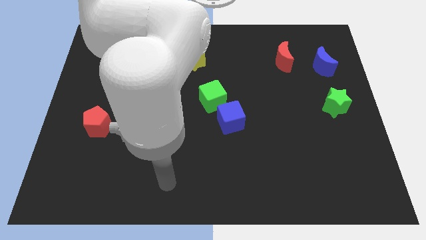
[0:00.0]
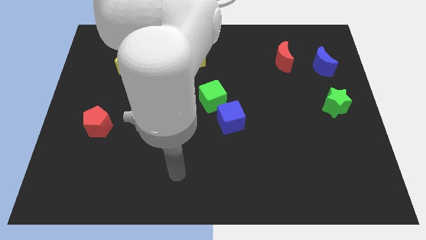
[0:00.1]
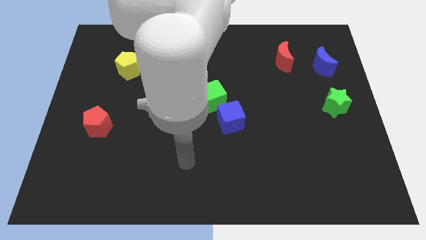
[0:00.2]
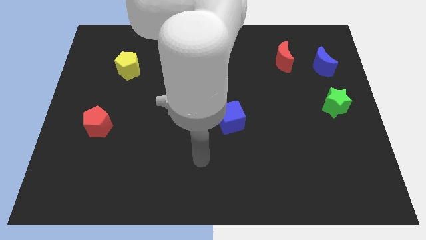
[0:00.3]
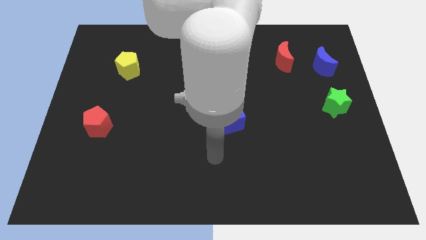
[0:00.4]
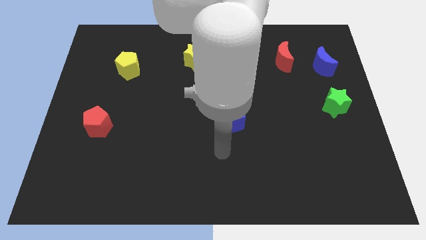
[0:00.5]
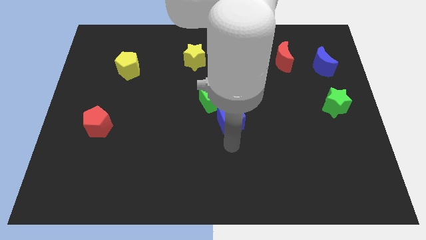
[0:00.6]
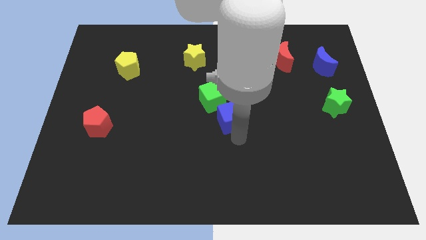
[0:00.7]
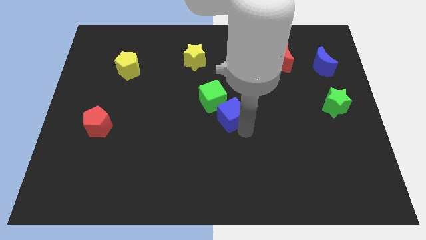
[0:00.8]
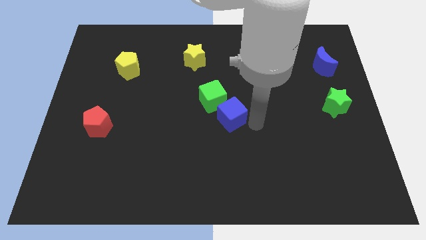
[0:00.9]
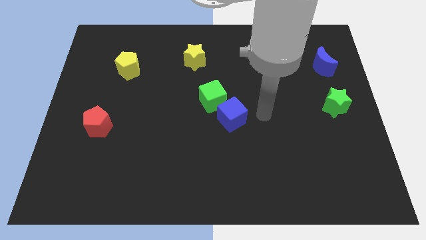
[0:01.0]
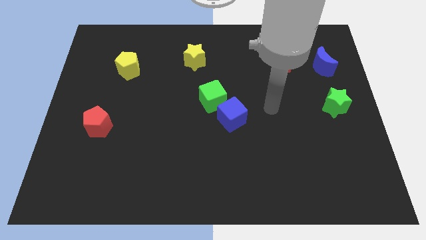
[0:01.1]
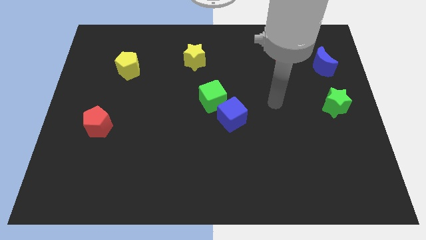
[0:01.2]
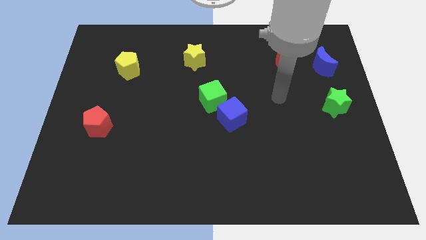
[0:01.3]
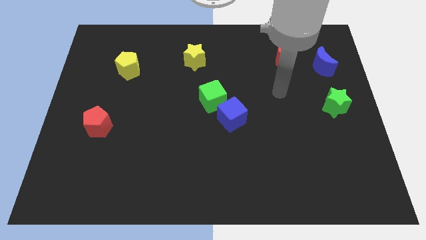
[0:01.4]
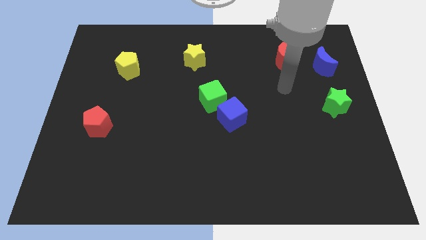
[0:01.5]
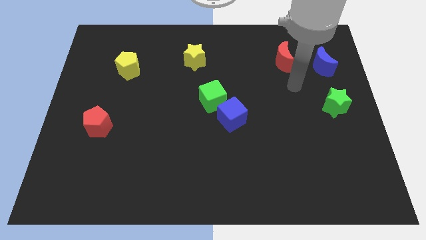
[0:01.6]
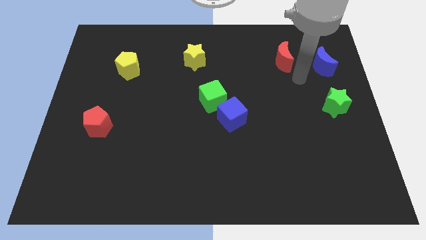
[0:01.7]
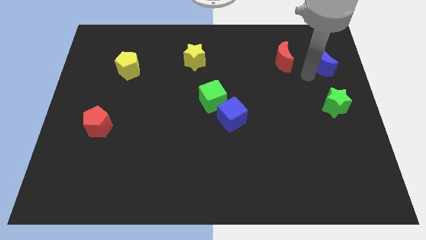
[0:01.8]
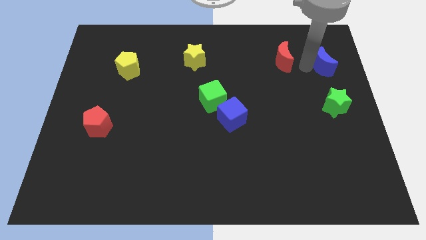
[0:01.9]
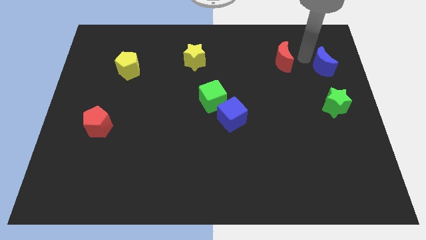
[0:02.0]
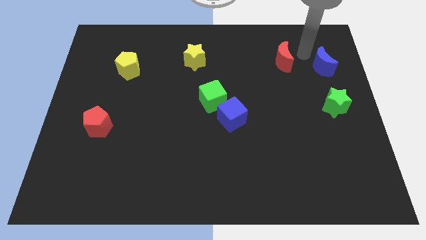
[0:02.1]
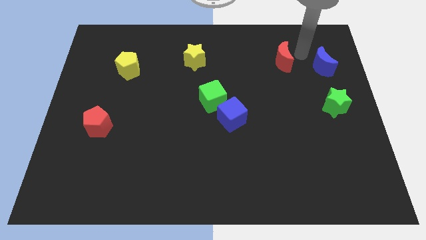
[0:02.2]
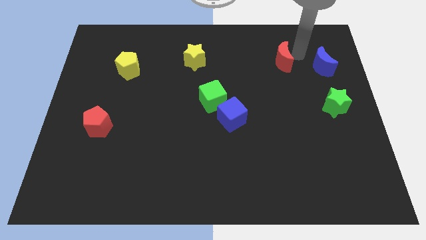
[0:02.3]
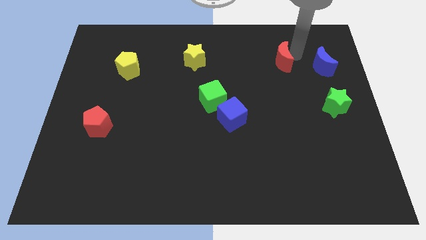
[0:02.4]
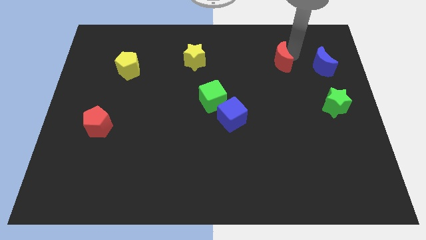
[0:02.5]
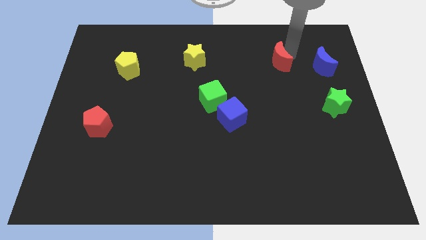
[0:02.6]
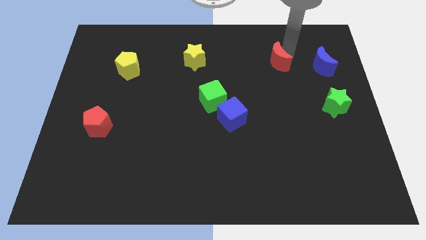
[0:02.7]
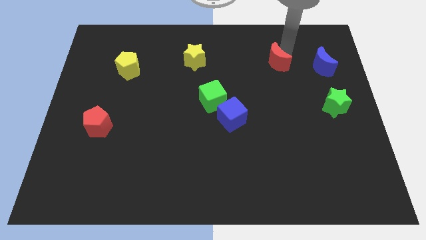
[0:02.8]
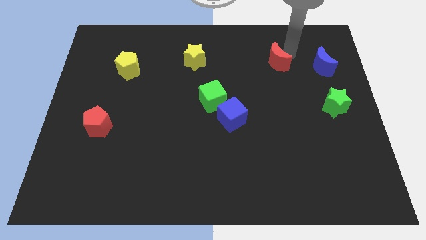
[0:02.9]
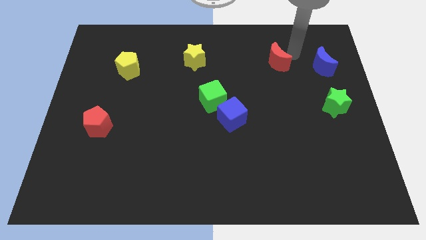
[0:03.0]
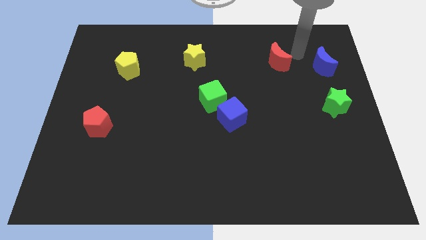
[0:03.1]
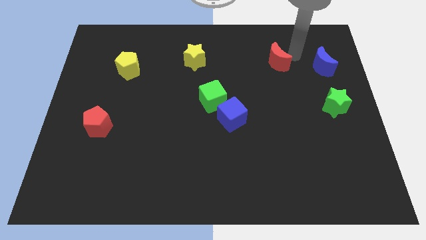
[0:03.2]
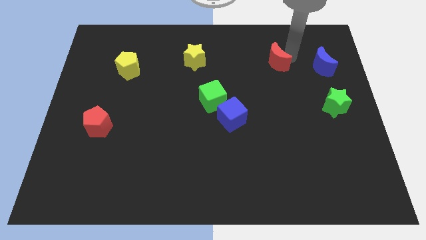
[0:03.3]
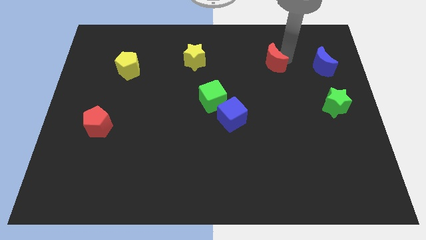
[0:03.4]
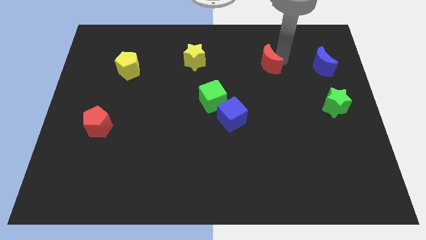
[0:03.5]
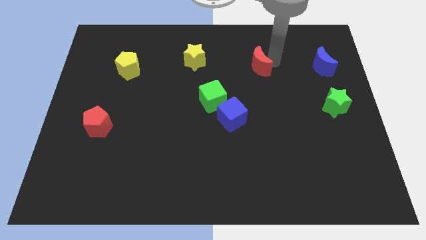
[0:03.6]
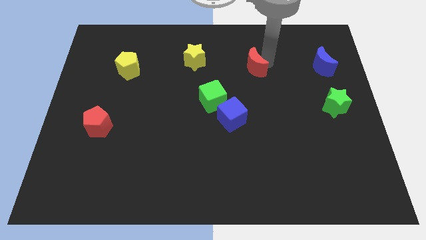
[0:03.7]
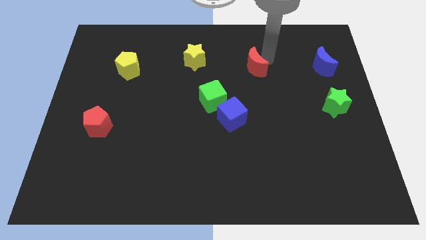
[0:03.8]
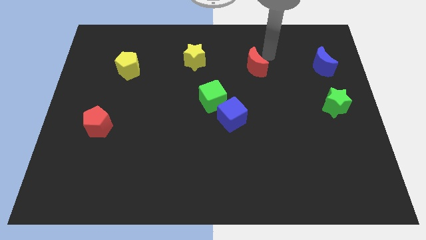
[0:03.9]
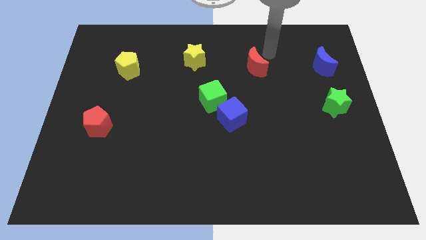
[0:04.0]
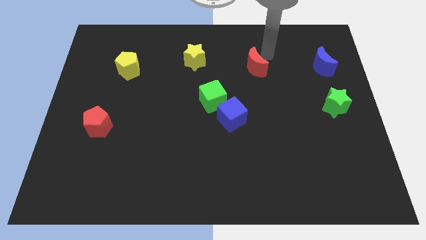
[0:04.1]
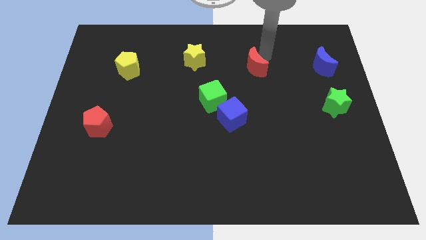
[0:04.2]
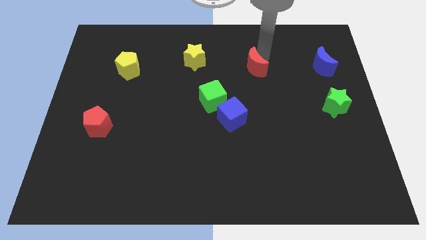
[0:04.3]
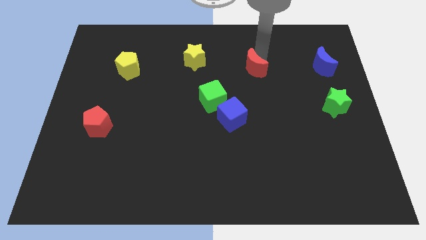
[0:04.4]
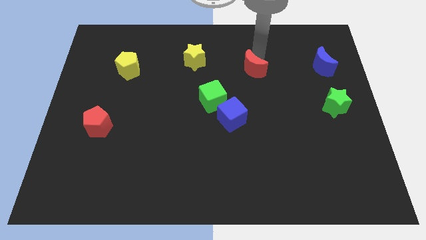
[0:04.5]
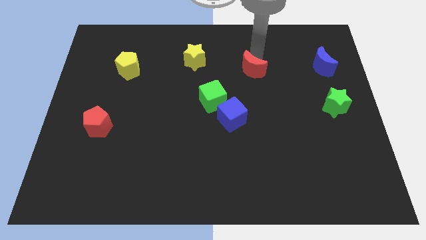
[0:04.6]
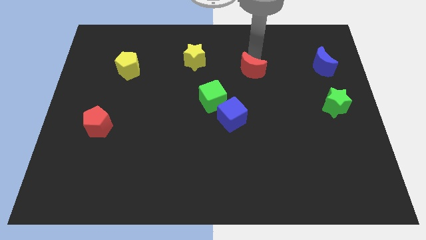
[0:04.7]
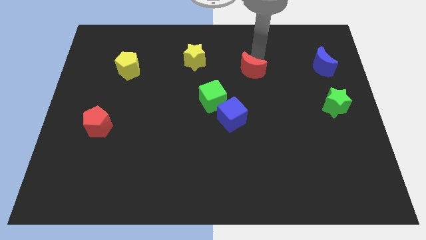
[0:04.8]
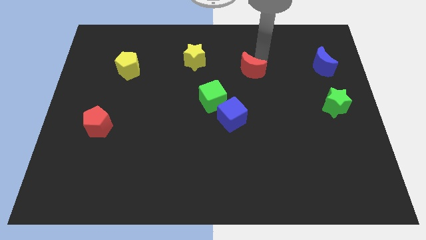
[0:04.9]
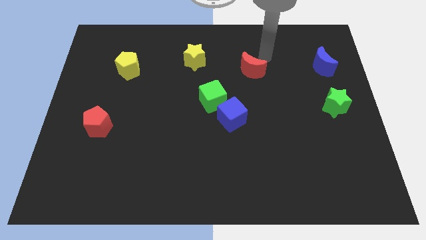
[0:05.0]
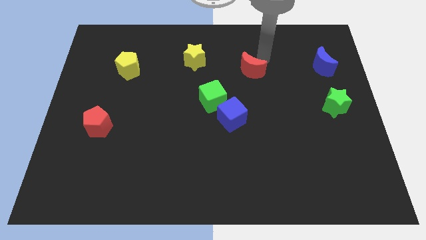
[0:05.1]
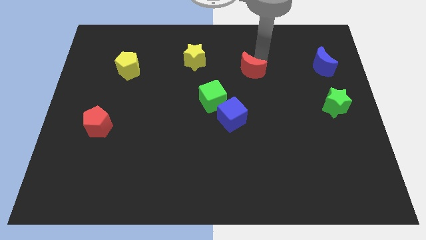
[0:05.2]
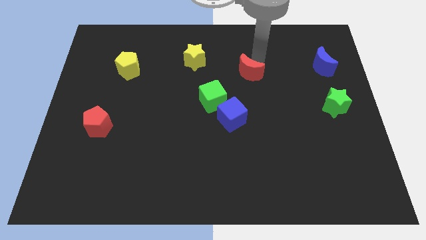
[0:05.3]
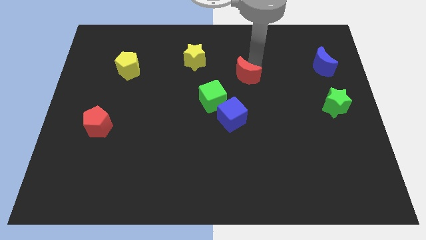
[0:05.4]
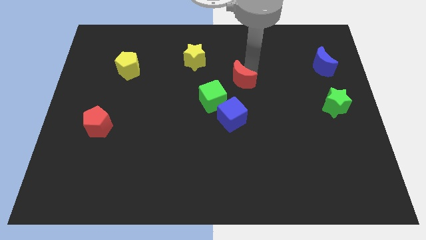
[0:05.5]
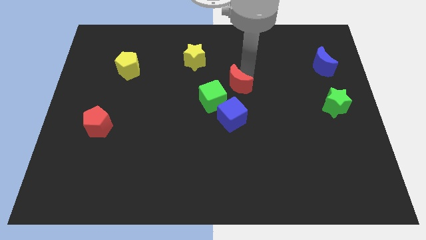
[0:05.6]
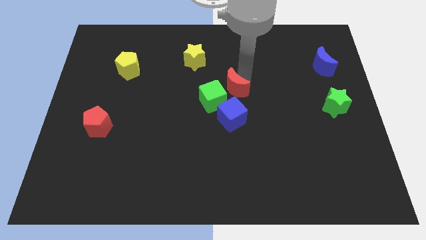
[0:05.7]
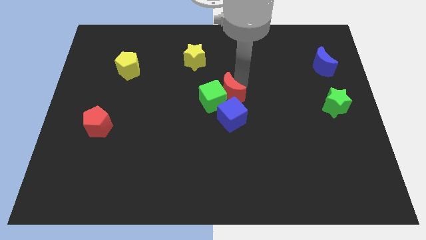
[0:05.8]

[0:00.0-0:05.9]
push the red moon next to the green cube

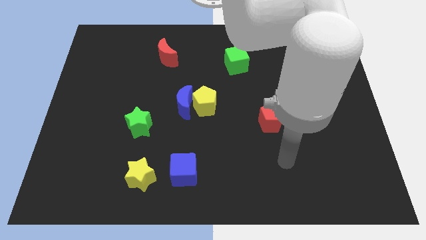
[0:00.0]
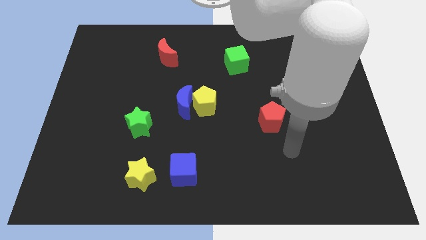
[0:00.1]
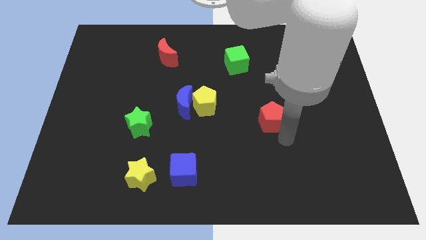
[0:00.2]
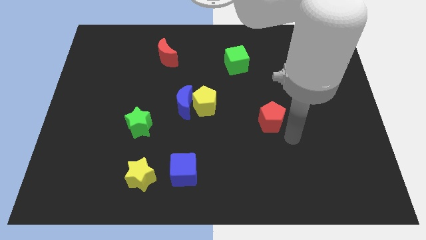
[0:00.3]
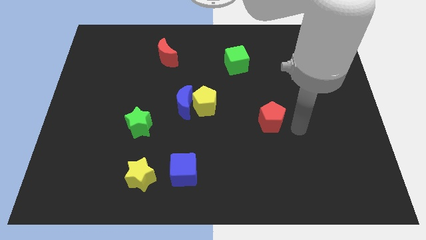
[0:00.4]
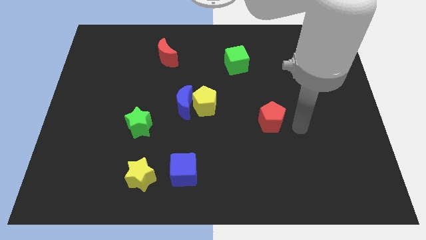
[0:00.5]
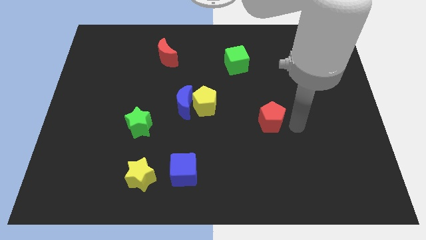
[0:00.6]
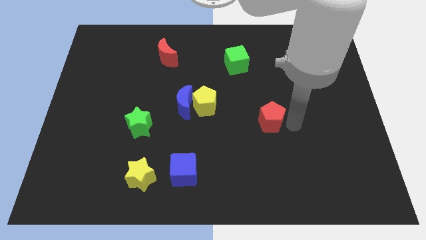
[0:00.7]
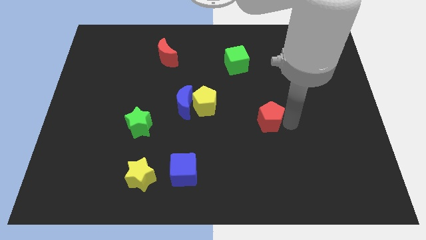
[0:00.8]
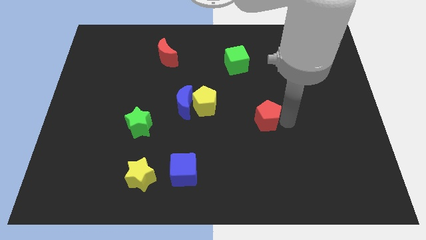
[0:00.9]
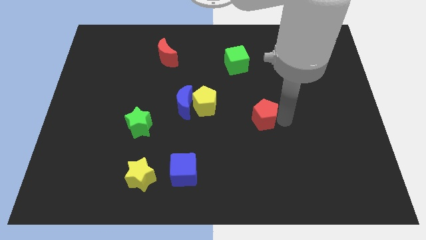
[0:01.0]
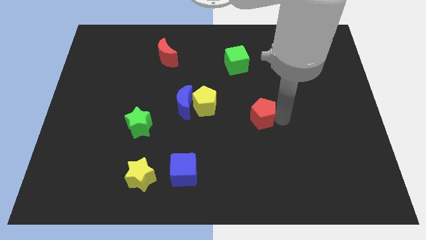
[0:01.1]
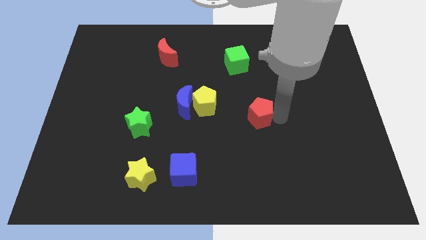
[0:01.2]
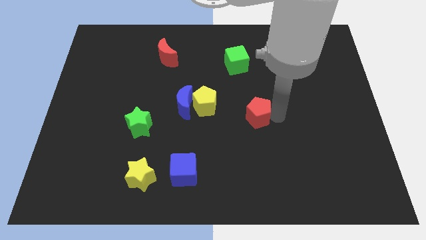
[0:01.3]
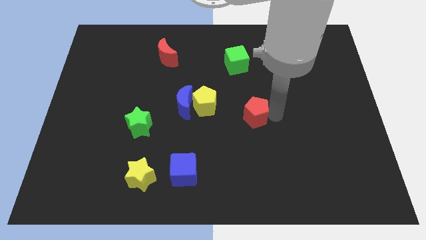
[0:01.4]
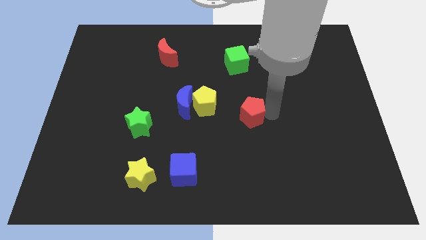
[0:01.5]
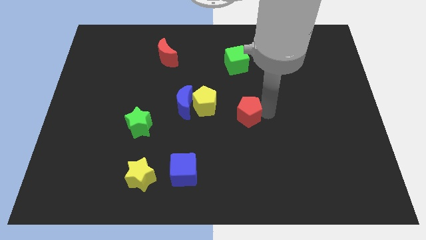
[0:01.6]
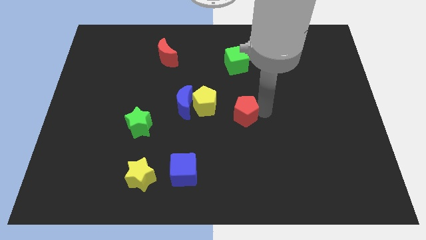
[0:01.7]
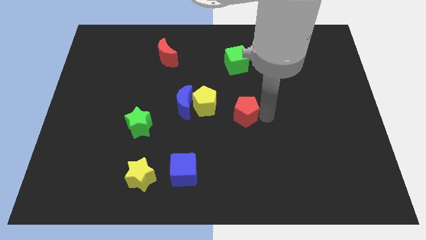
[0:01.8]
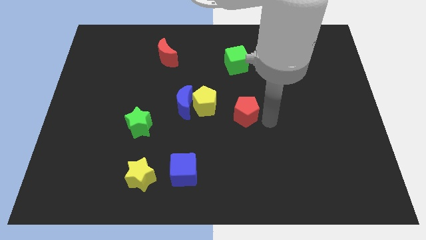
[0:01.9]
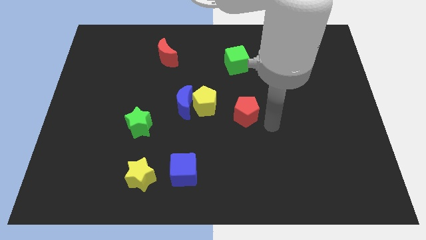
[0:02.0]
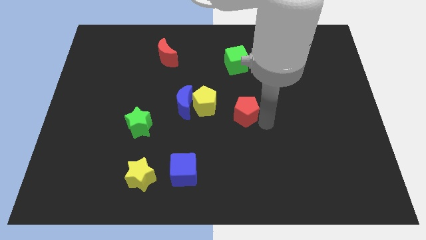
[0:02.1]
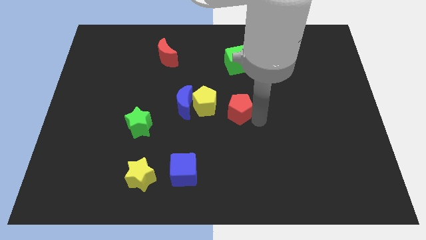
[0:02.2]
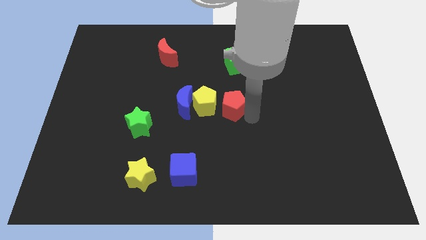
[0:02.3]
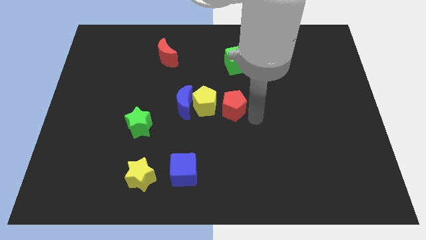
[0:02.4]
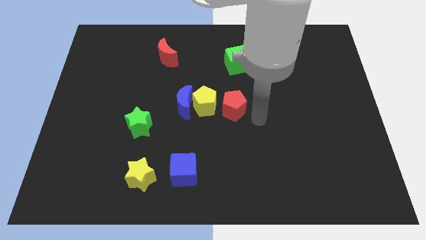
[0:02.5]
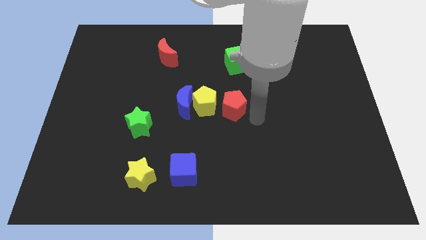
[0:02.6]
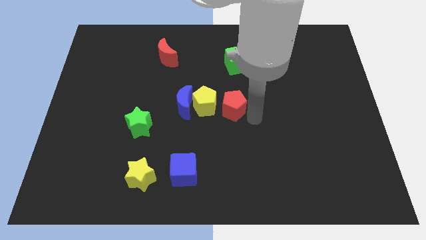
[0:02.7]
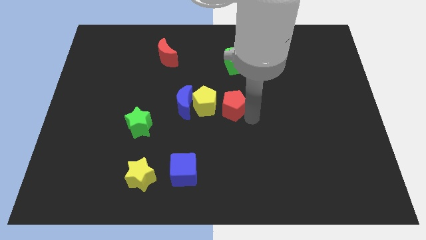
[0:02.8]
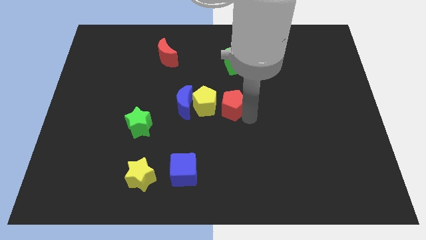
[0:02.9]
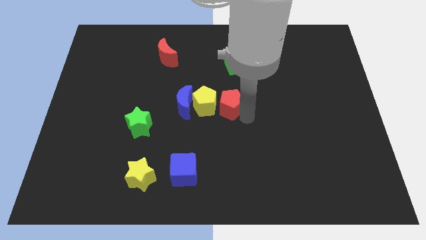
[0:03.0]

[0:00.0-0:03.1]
move the red pentagon to the yellow pentagon
